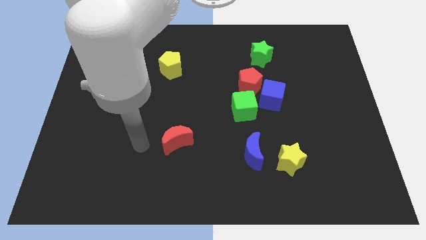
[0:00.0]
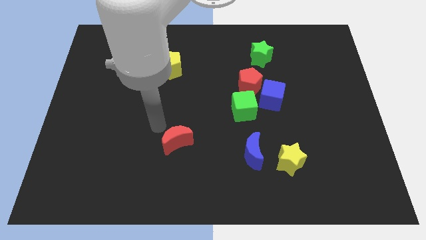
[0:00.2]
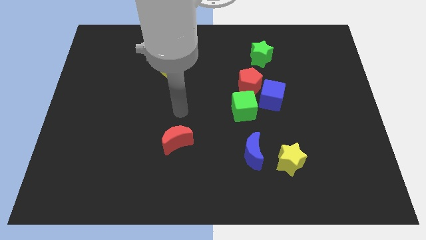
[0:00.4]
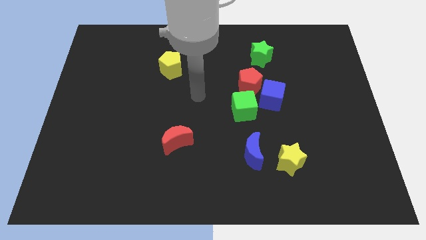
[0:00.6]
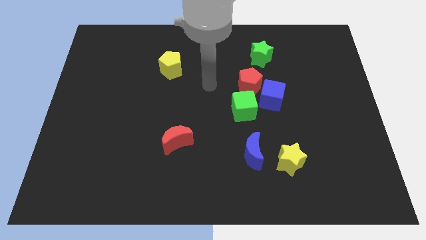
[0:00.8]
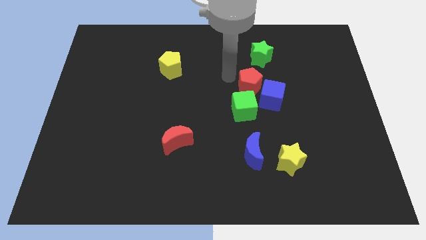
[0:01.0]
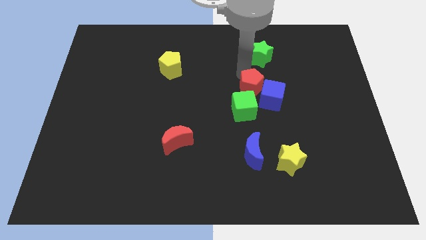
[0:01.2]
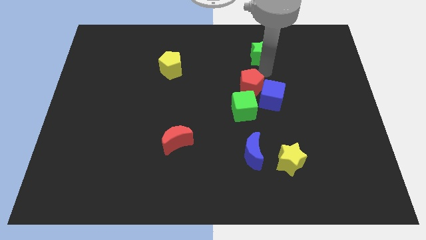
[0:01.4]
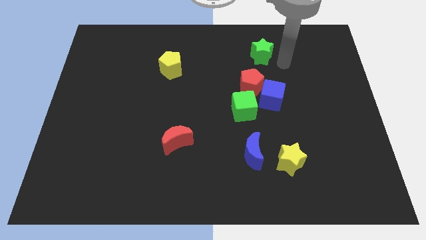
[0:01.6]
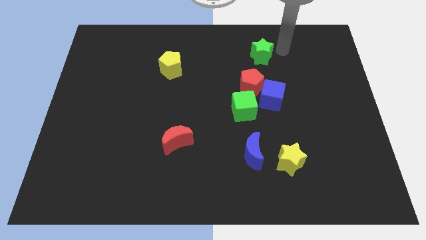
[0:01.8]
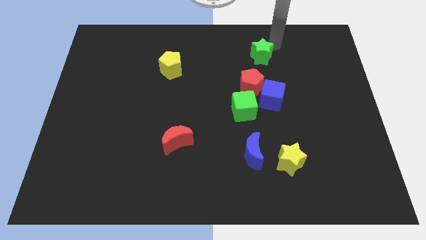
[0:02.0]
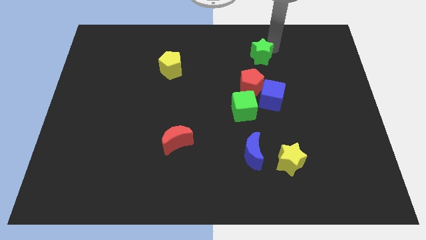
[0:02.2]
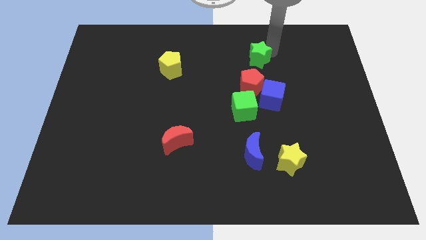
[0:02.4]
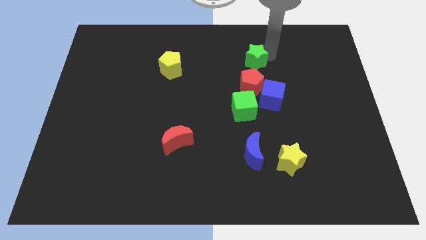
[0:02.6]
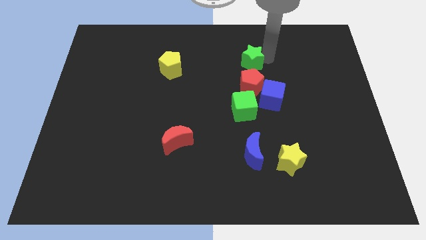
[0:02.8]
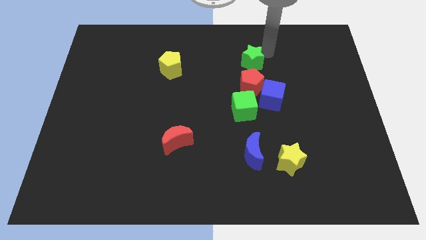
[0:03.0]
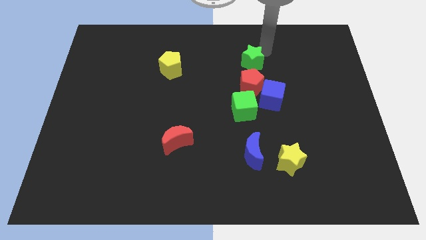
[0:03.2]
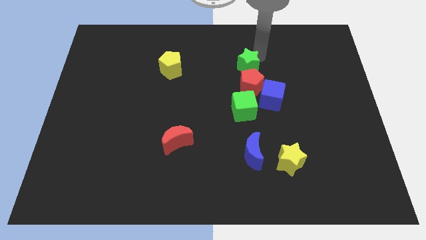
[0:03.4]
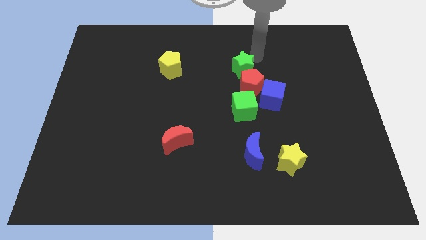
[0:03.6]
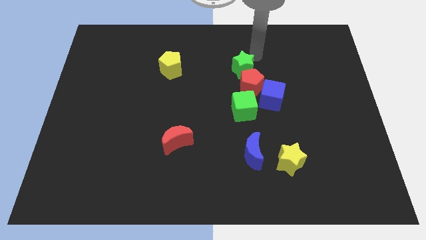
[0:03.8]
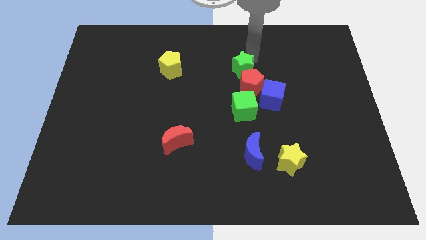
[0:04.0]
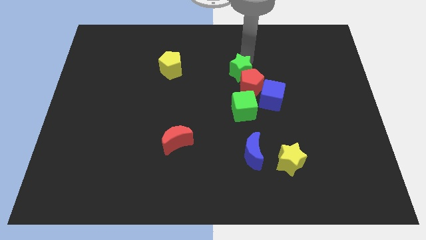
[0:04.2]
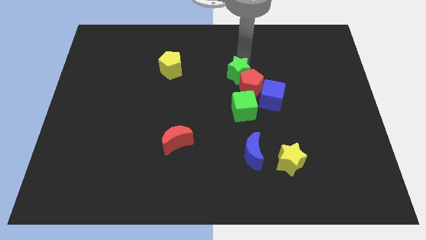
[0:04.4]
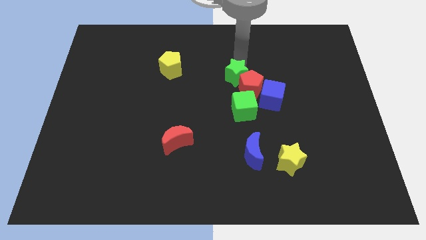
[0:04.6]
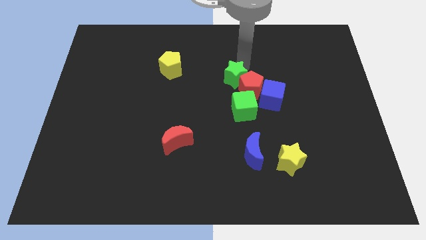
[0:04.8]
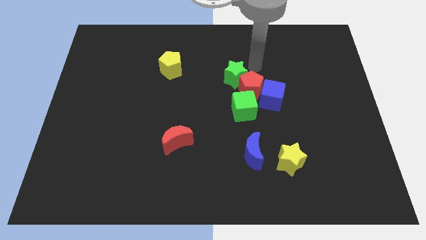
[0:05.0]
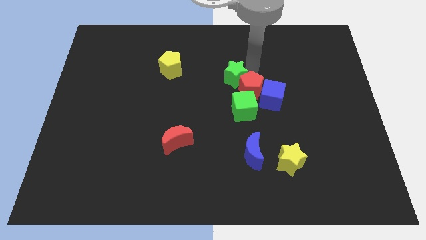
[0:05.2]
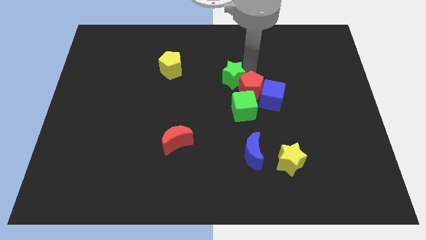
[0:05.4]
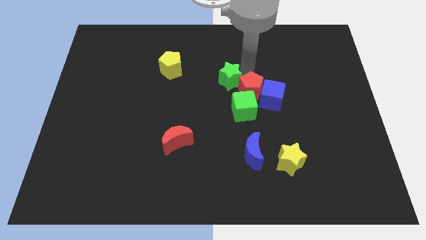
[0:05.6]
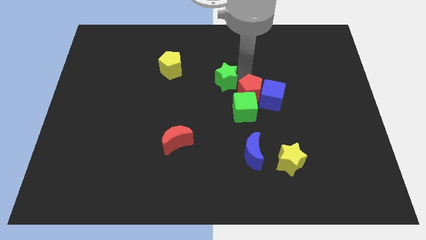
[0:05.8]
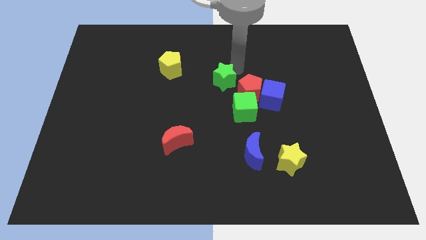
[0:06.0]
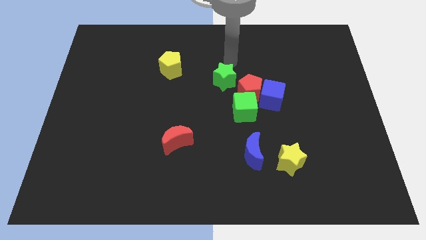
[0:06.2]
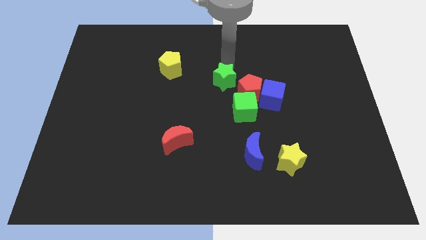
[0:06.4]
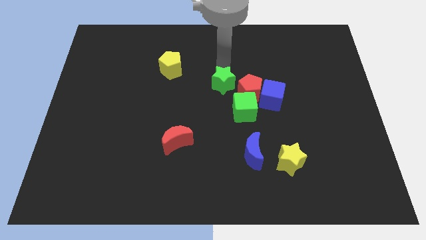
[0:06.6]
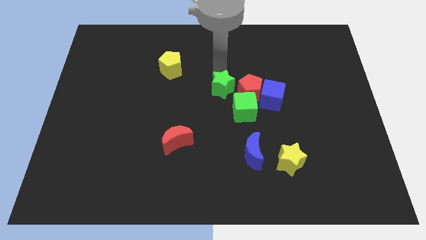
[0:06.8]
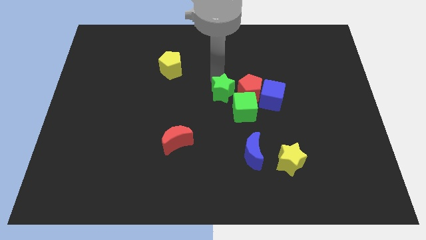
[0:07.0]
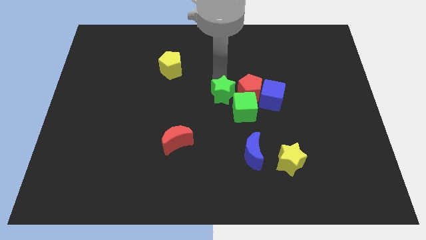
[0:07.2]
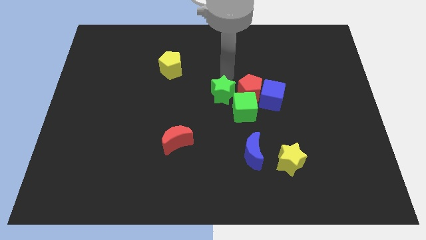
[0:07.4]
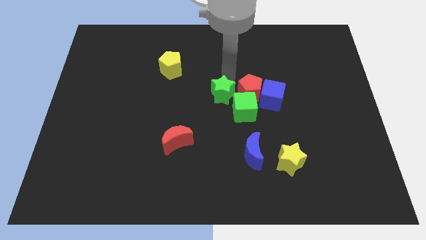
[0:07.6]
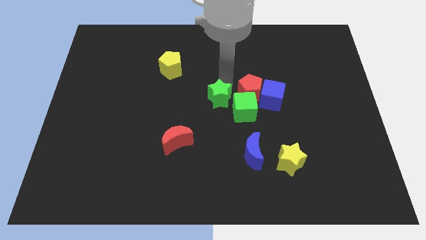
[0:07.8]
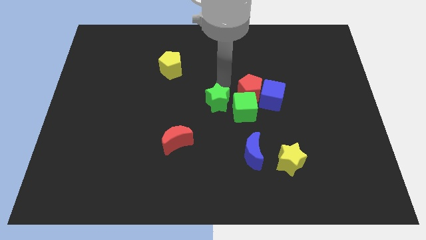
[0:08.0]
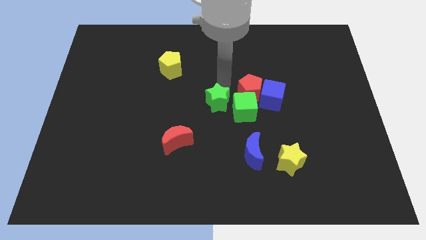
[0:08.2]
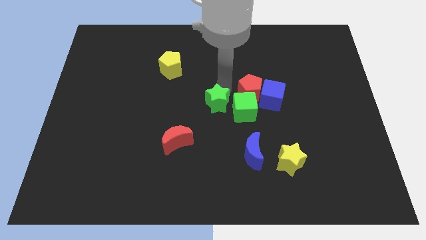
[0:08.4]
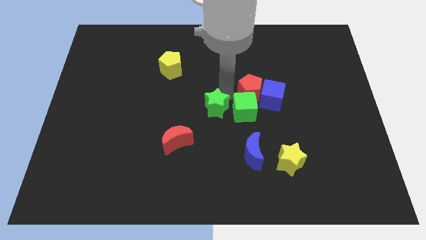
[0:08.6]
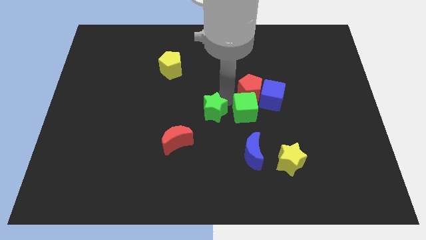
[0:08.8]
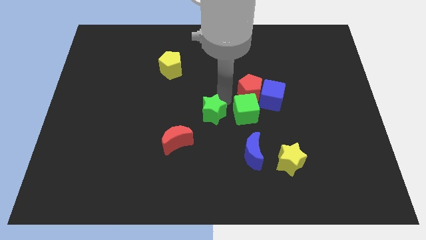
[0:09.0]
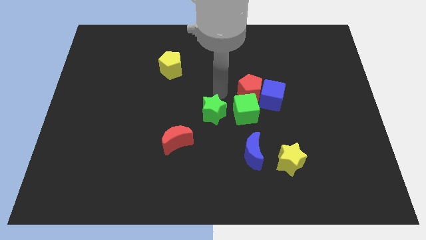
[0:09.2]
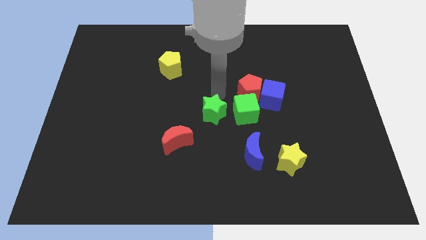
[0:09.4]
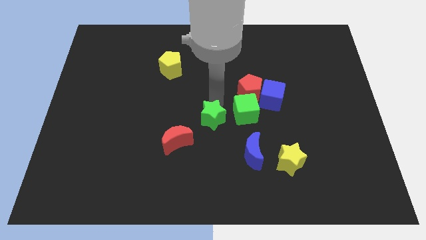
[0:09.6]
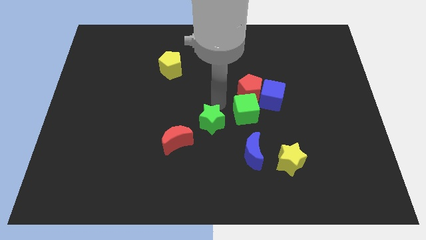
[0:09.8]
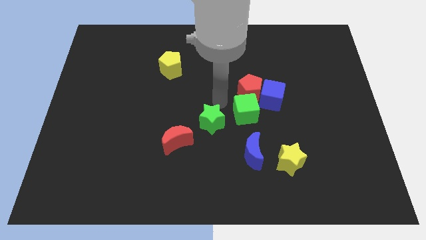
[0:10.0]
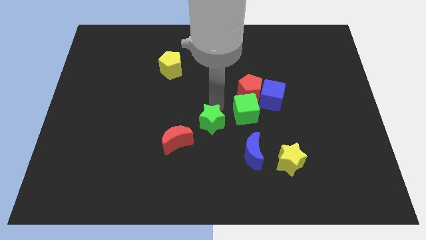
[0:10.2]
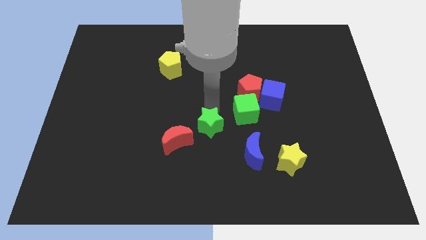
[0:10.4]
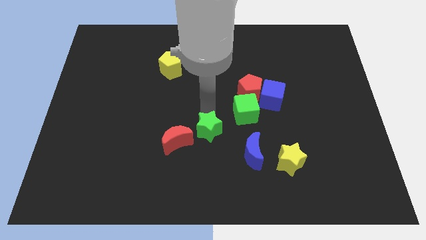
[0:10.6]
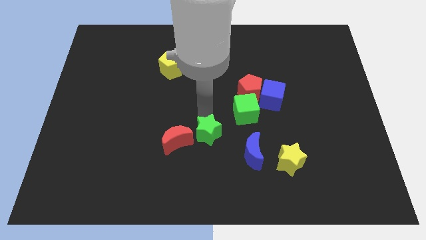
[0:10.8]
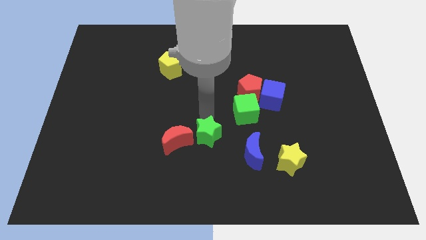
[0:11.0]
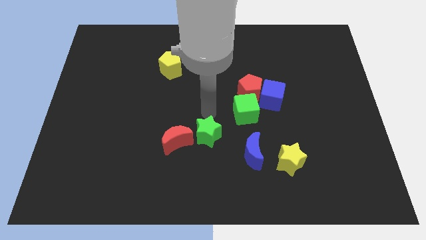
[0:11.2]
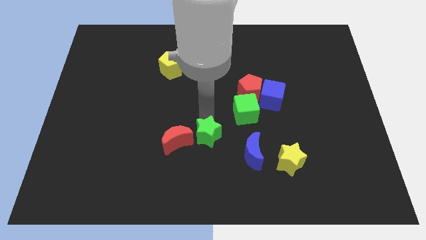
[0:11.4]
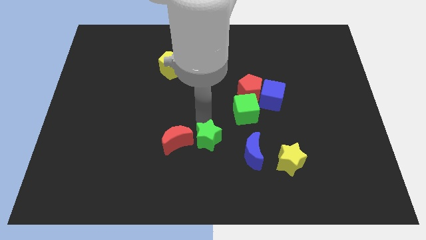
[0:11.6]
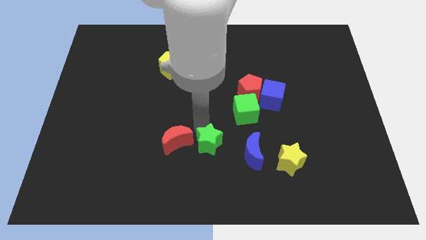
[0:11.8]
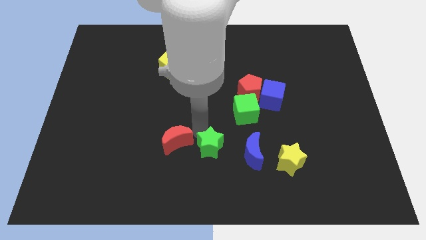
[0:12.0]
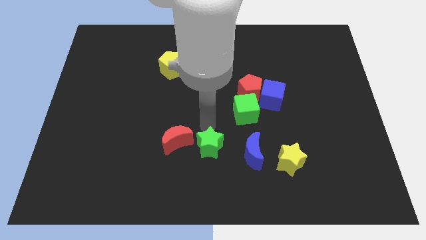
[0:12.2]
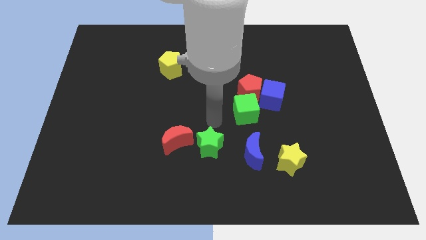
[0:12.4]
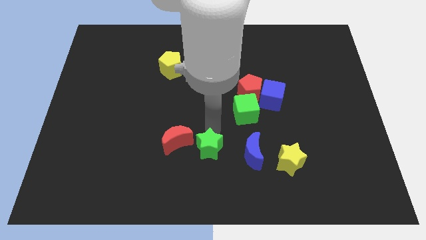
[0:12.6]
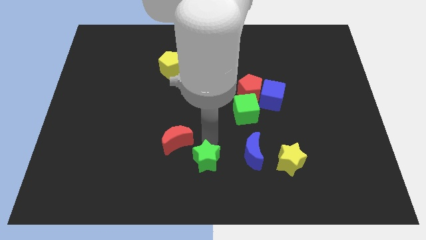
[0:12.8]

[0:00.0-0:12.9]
slide the green star to the bottom

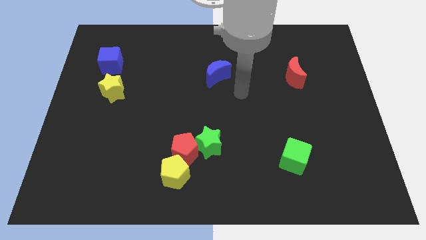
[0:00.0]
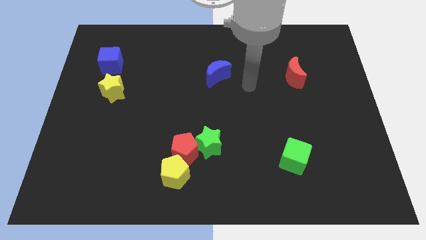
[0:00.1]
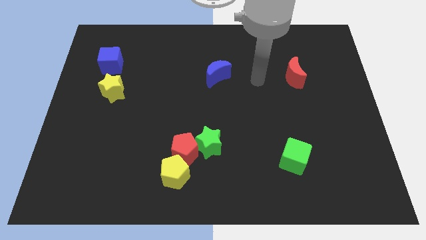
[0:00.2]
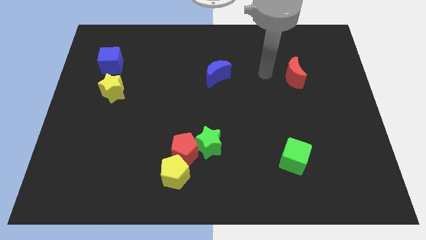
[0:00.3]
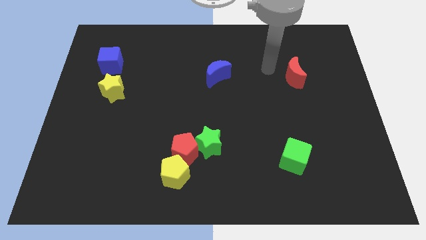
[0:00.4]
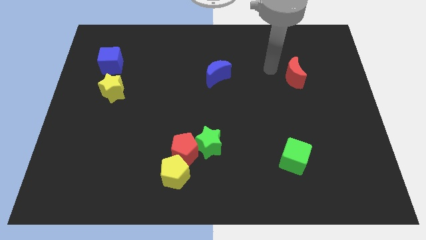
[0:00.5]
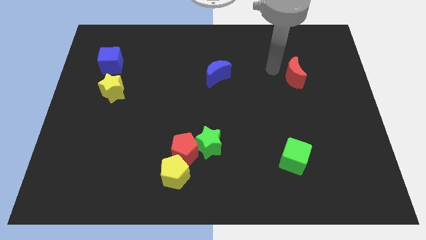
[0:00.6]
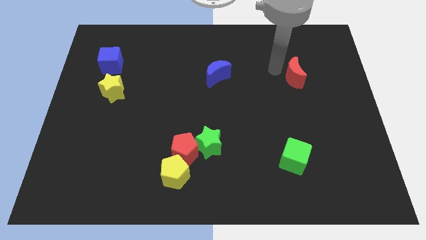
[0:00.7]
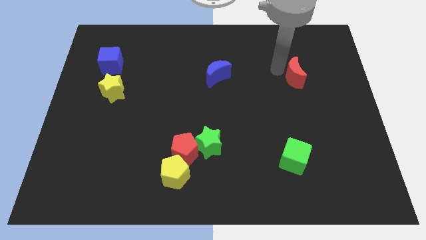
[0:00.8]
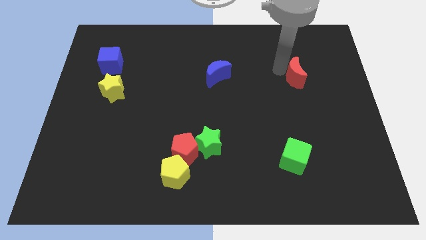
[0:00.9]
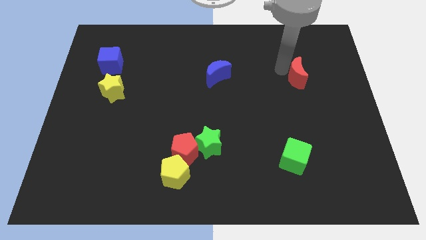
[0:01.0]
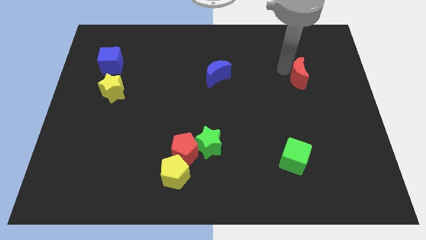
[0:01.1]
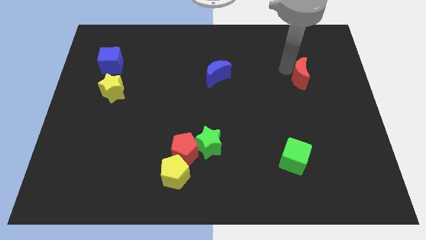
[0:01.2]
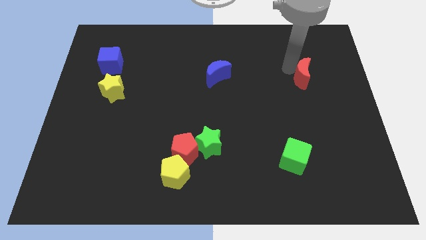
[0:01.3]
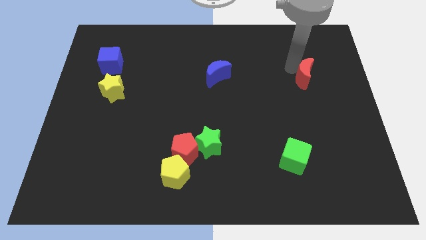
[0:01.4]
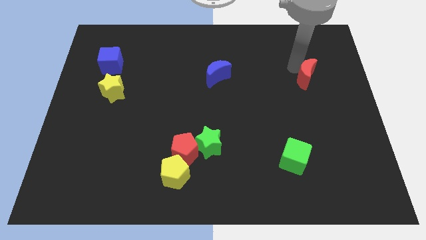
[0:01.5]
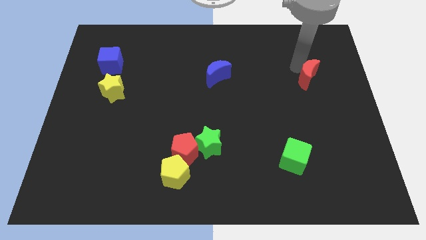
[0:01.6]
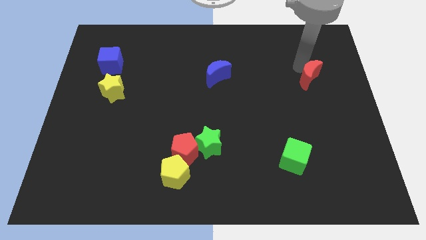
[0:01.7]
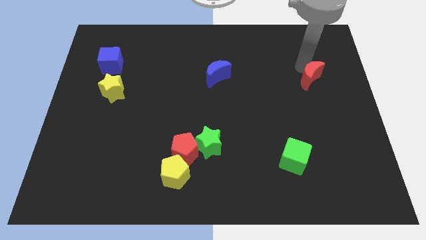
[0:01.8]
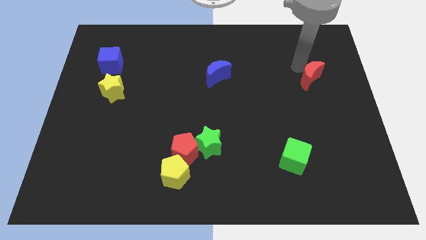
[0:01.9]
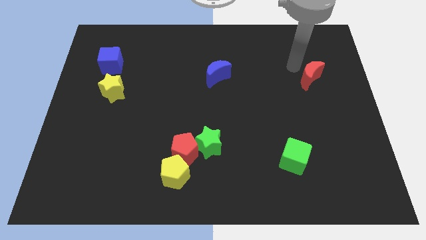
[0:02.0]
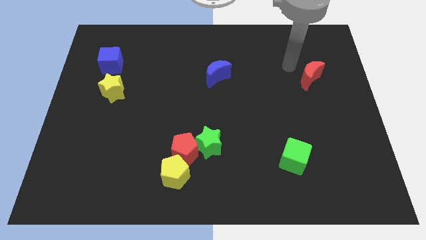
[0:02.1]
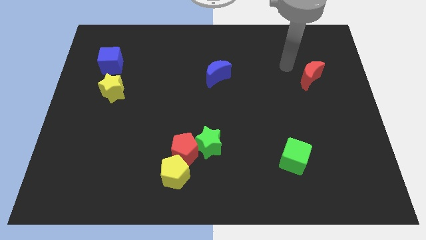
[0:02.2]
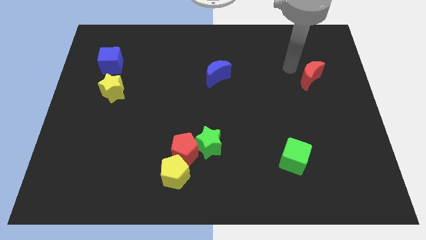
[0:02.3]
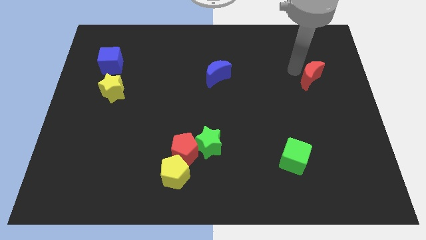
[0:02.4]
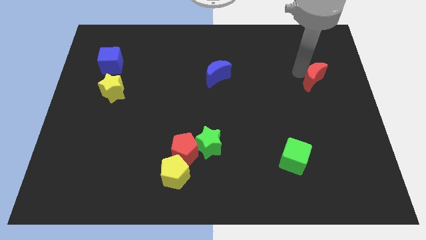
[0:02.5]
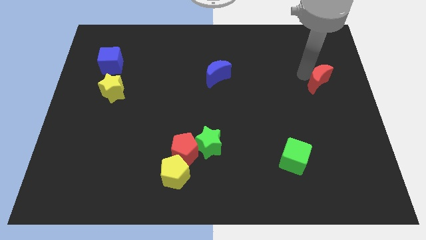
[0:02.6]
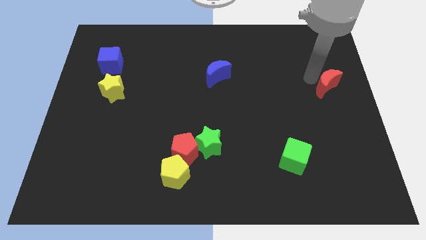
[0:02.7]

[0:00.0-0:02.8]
push the red moon to the center right
